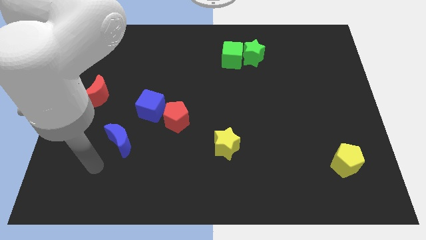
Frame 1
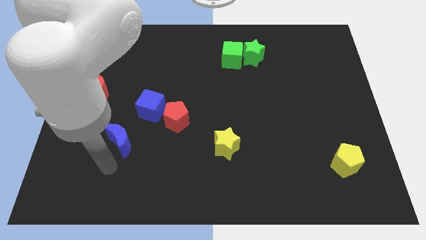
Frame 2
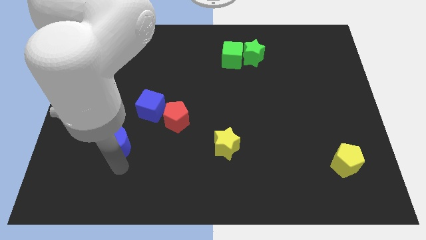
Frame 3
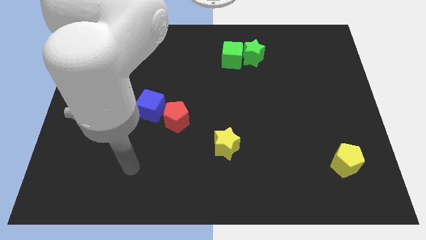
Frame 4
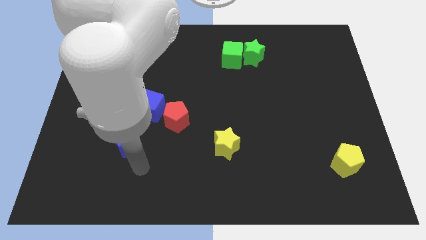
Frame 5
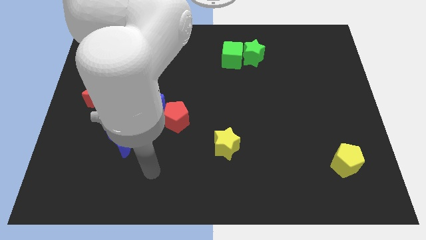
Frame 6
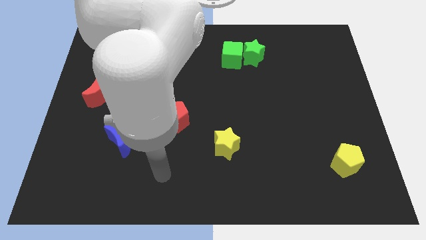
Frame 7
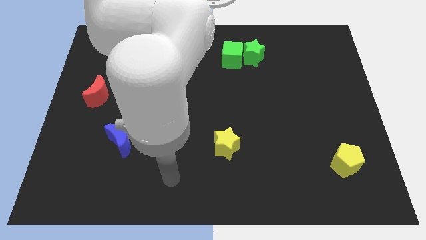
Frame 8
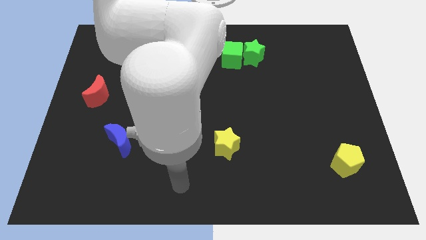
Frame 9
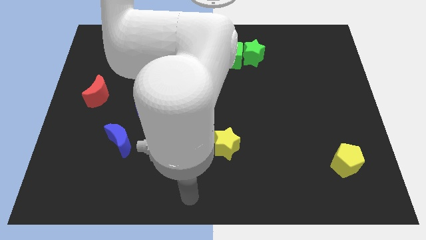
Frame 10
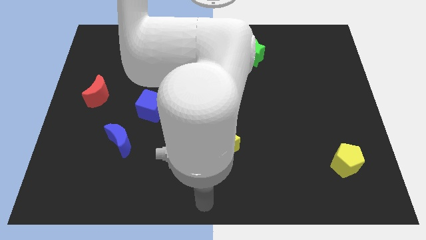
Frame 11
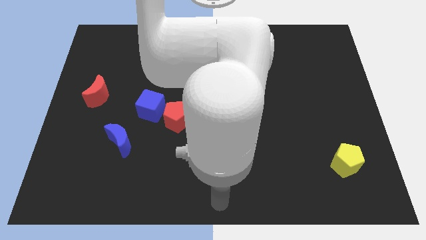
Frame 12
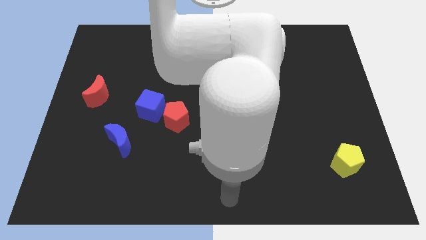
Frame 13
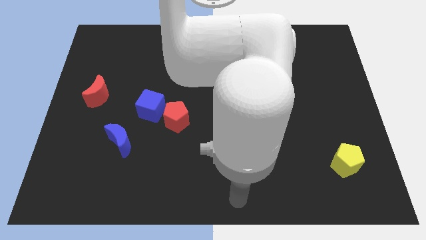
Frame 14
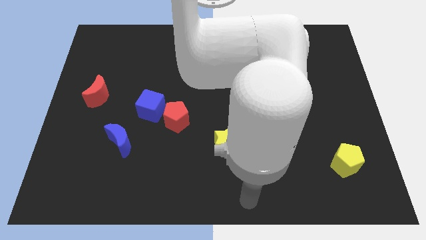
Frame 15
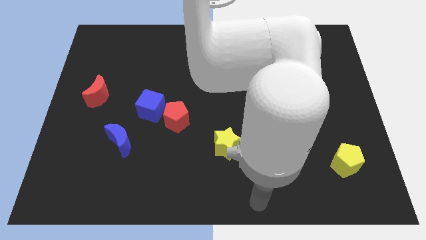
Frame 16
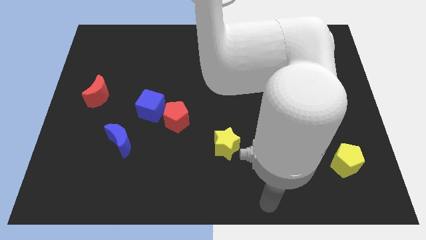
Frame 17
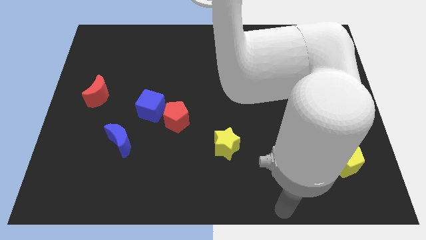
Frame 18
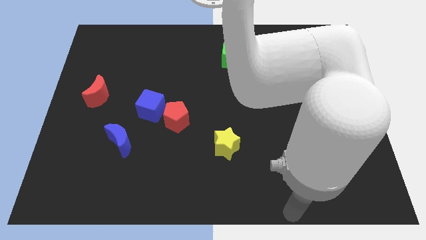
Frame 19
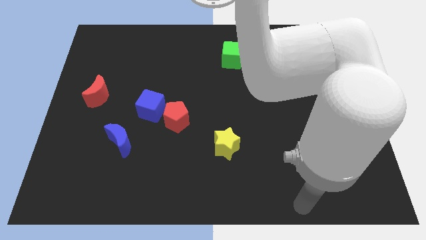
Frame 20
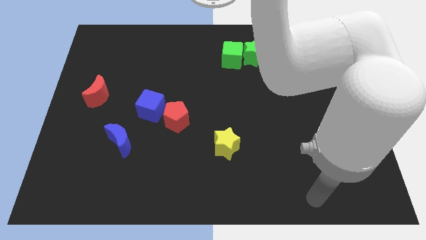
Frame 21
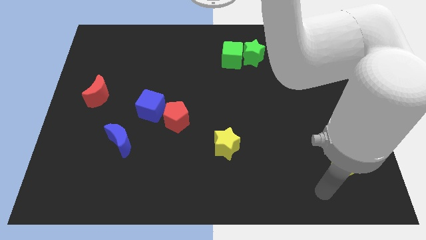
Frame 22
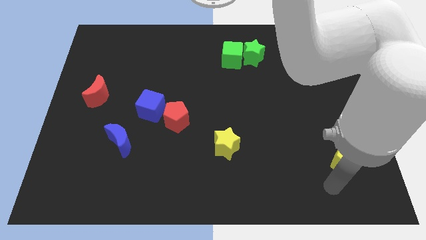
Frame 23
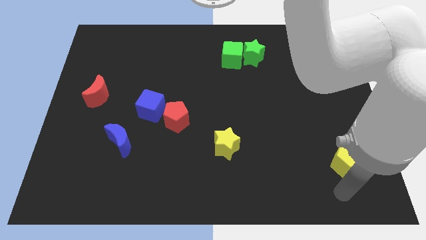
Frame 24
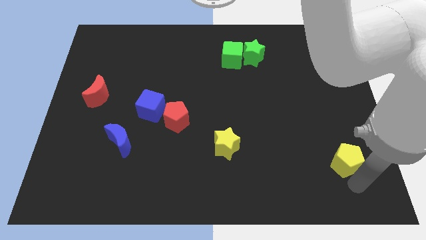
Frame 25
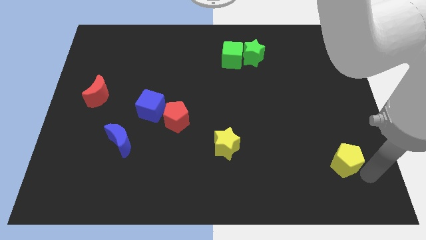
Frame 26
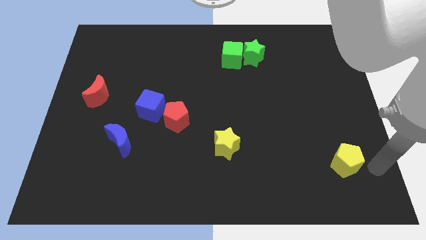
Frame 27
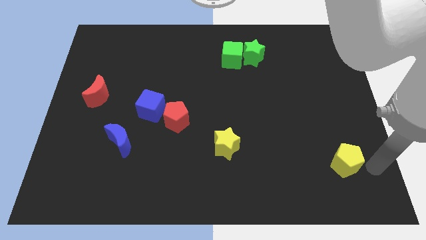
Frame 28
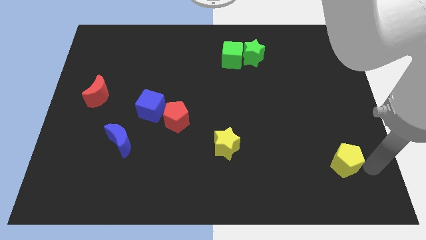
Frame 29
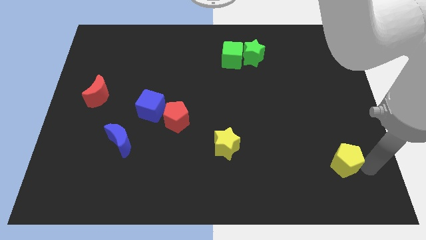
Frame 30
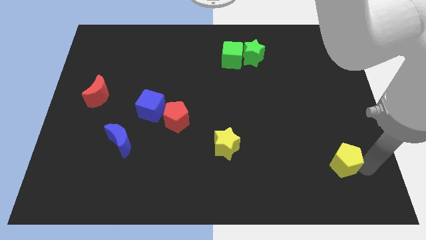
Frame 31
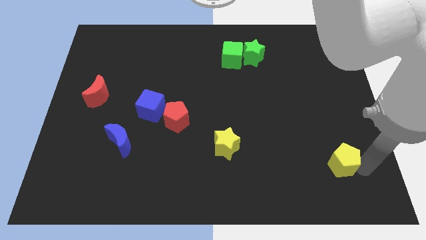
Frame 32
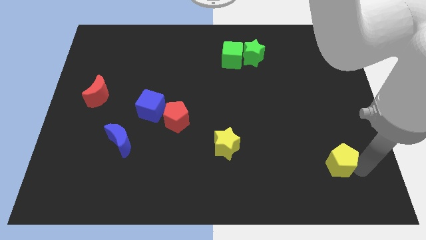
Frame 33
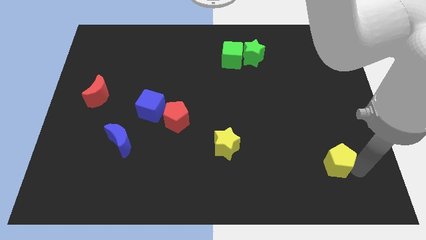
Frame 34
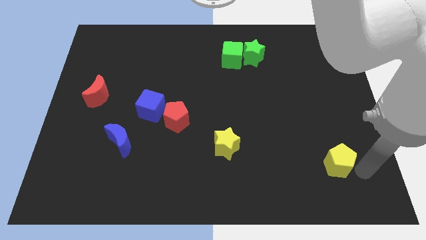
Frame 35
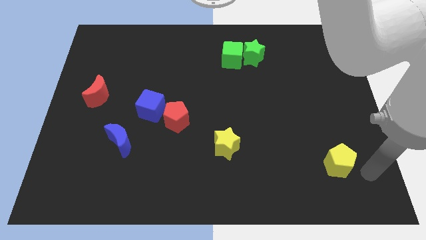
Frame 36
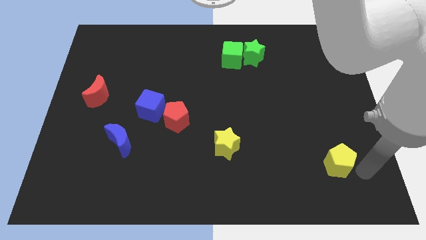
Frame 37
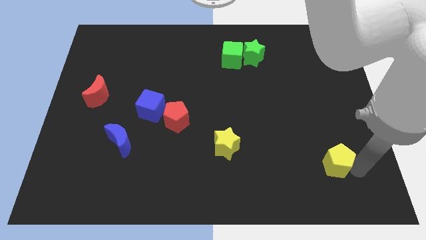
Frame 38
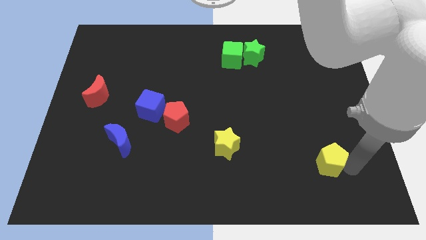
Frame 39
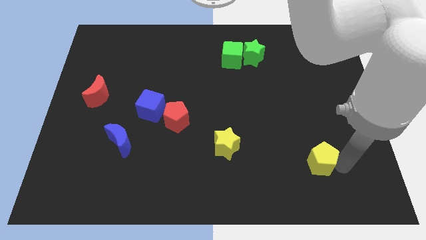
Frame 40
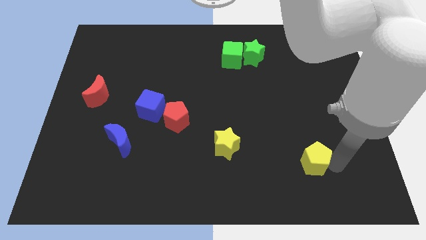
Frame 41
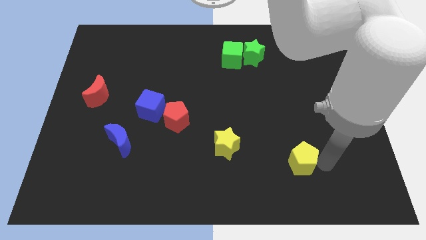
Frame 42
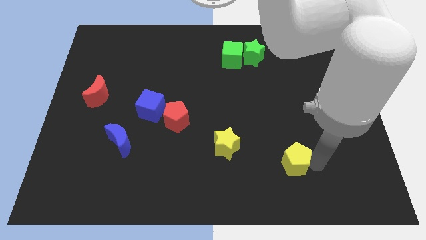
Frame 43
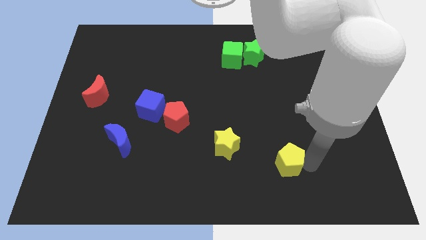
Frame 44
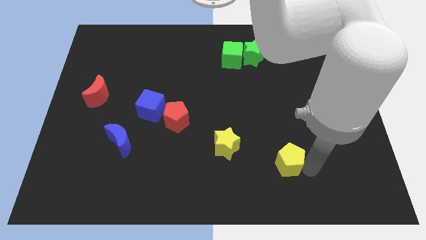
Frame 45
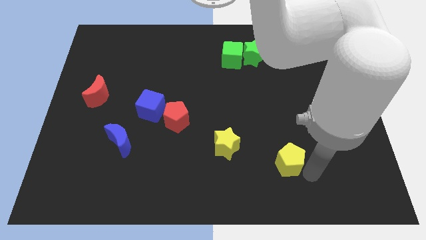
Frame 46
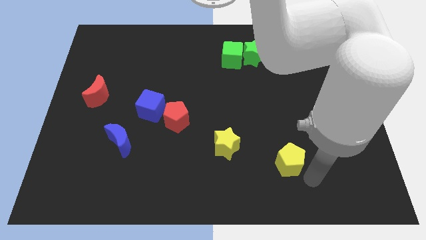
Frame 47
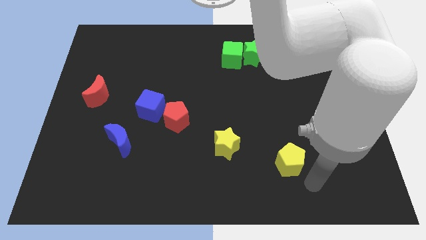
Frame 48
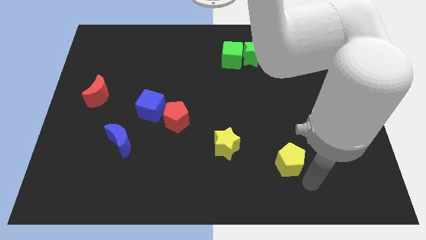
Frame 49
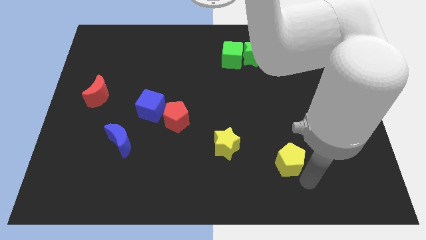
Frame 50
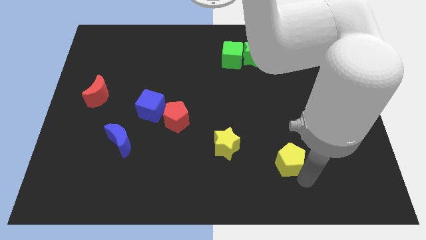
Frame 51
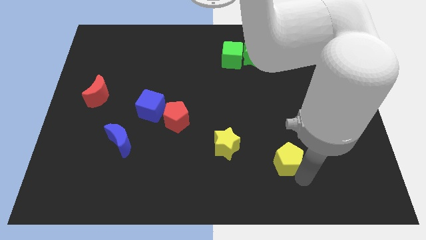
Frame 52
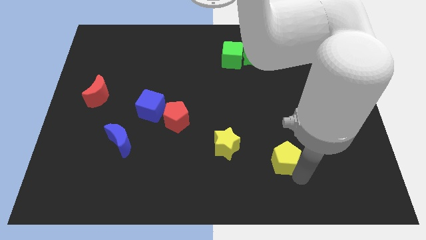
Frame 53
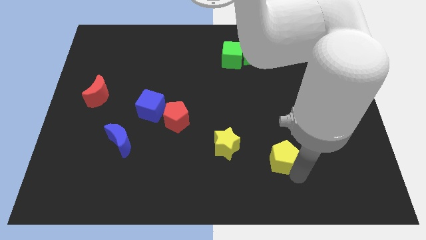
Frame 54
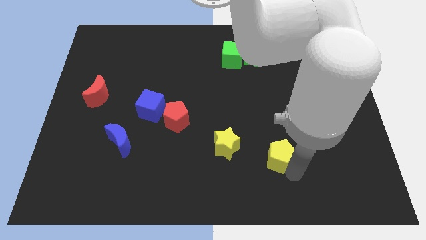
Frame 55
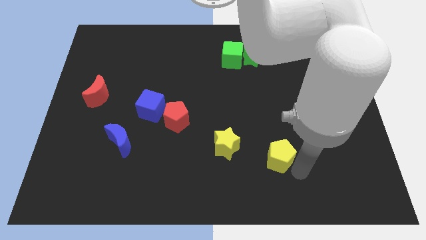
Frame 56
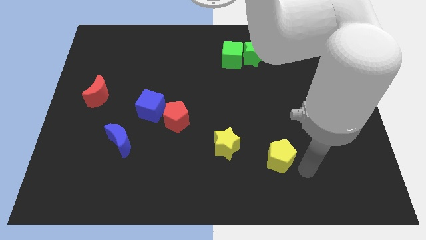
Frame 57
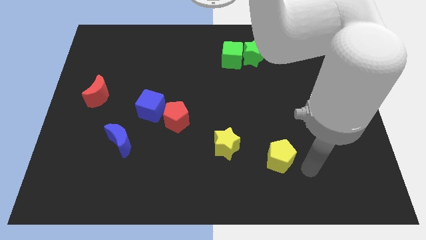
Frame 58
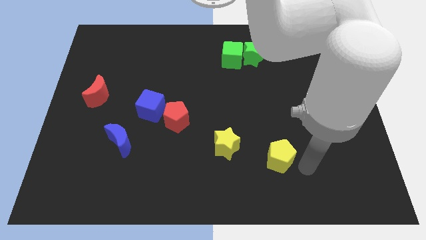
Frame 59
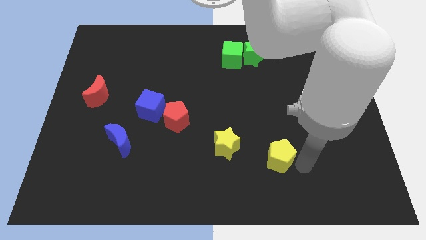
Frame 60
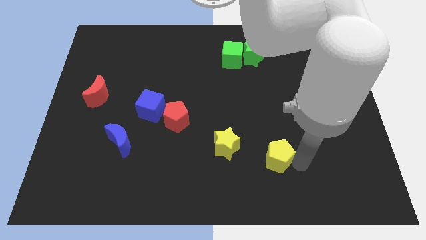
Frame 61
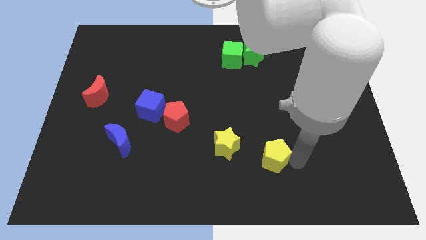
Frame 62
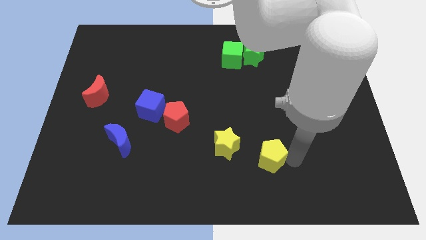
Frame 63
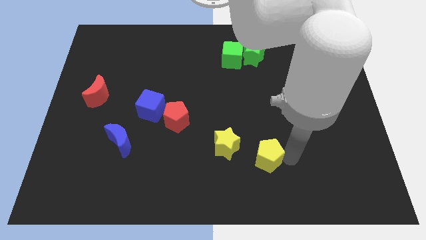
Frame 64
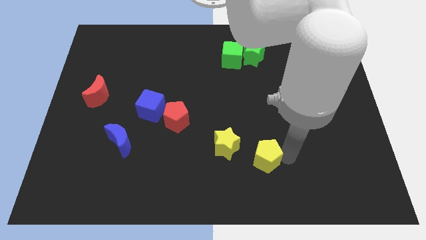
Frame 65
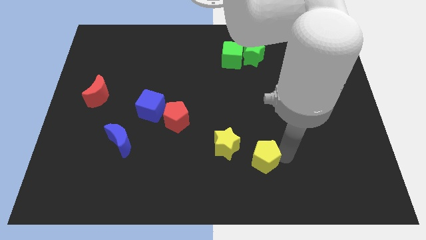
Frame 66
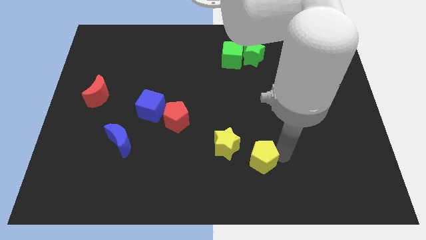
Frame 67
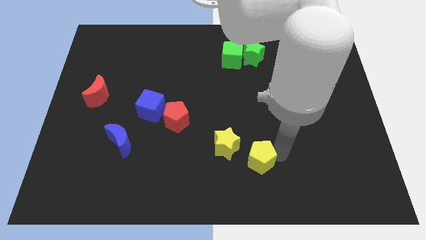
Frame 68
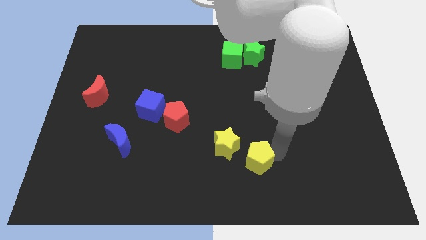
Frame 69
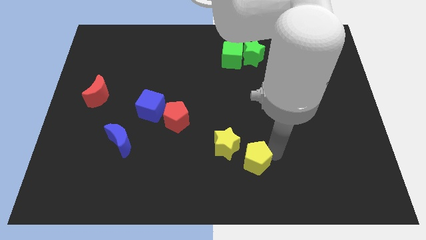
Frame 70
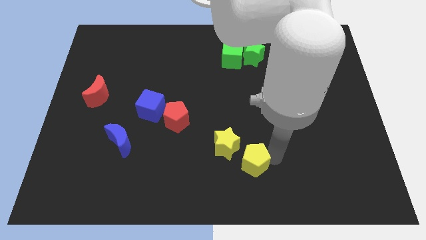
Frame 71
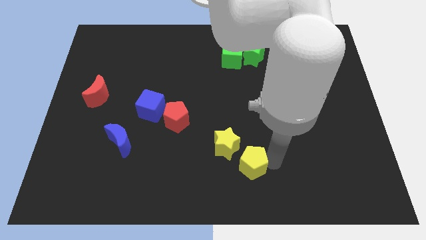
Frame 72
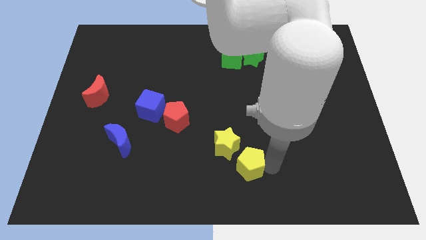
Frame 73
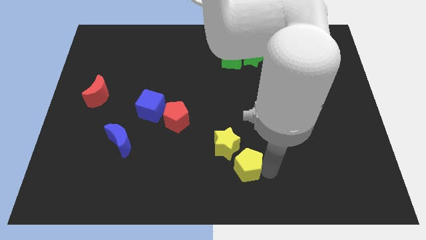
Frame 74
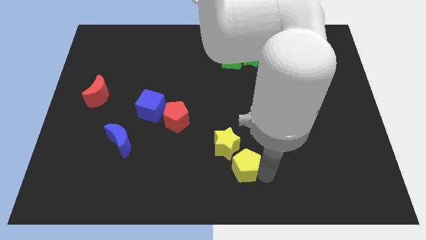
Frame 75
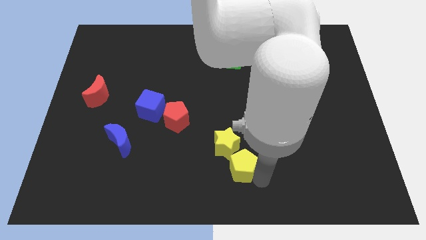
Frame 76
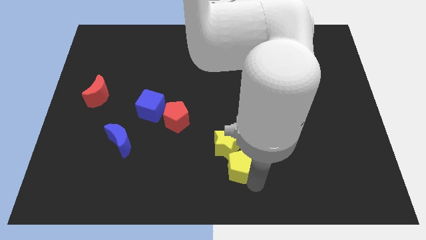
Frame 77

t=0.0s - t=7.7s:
push the yellow pentagon to the yellow star
